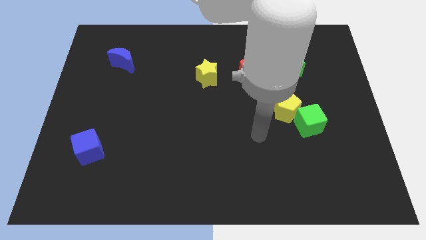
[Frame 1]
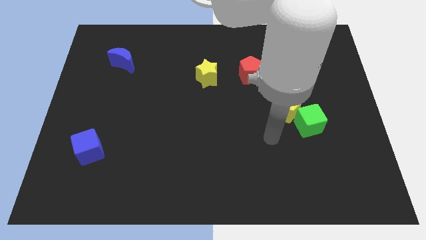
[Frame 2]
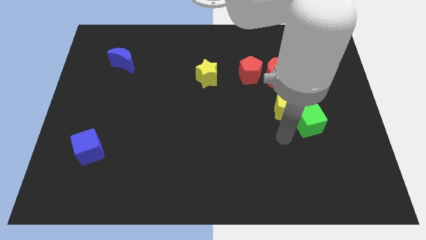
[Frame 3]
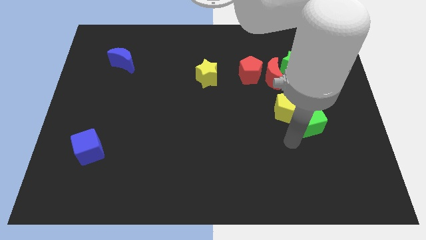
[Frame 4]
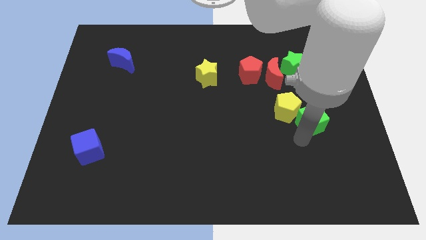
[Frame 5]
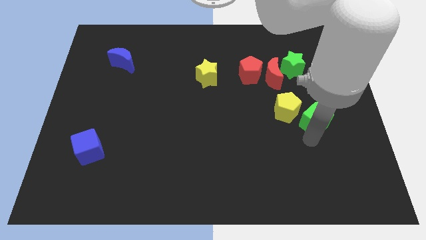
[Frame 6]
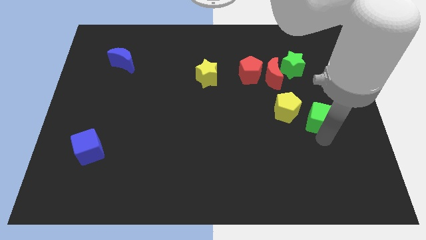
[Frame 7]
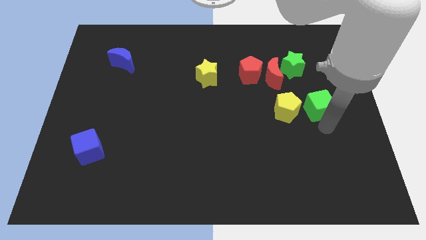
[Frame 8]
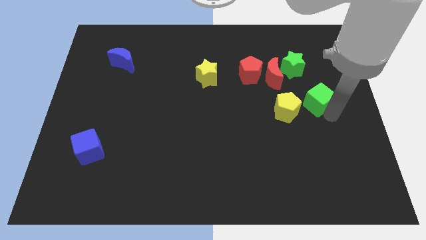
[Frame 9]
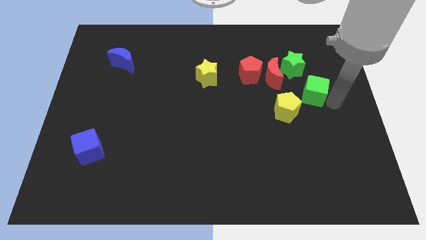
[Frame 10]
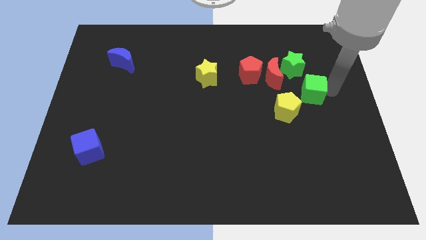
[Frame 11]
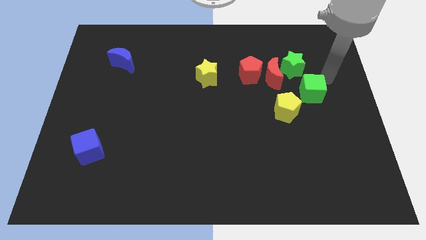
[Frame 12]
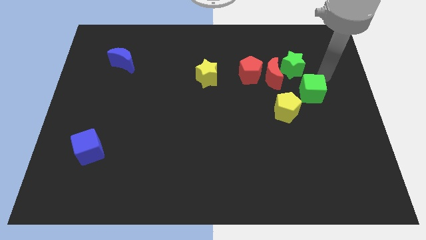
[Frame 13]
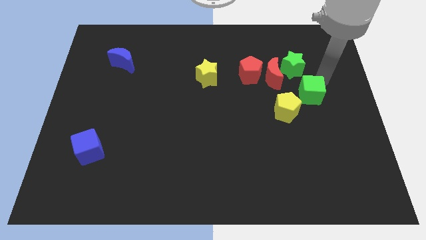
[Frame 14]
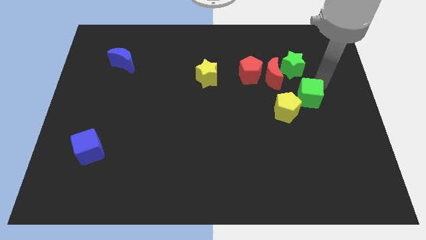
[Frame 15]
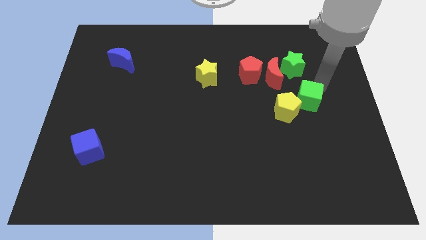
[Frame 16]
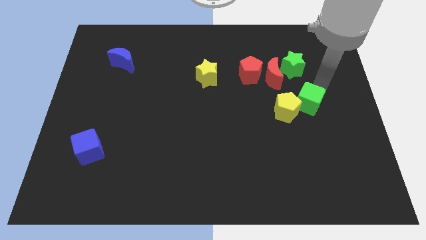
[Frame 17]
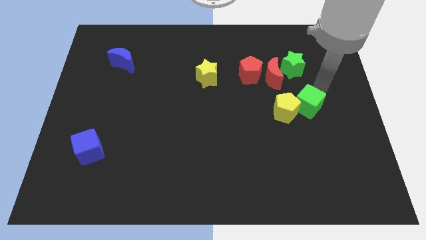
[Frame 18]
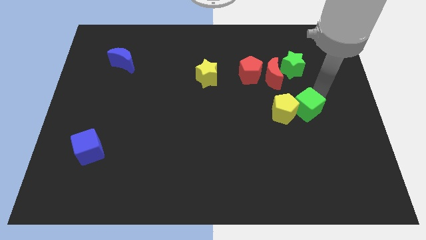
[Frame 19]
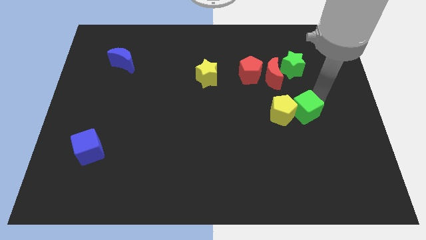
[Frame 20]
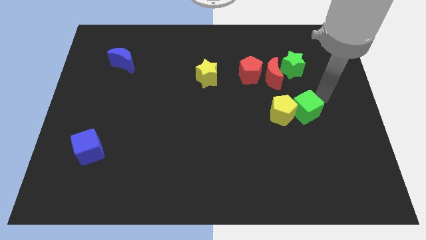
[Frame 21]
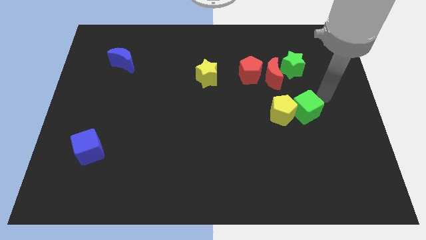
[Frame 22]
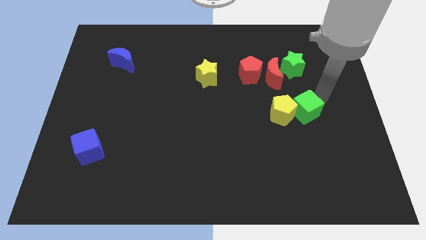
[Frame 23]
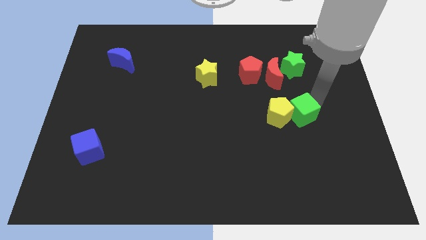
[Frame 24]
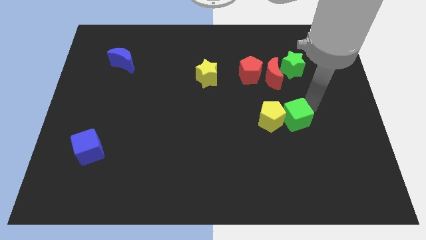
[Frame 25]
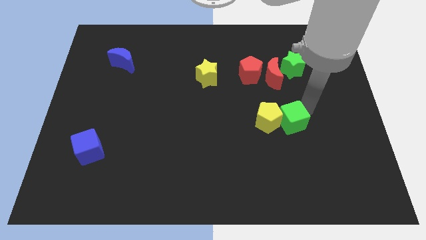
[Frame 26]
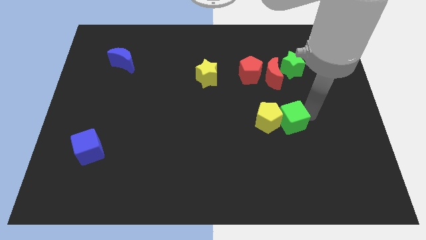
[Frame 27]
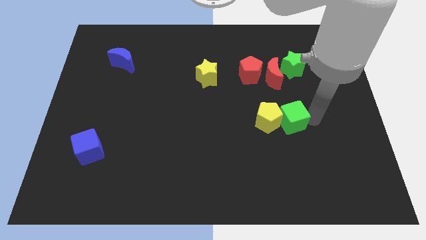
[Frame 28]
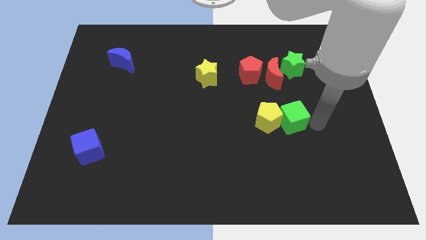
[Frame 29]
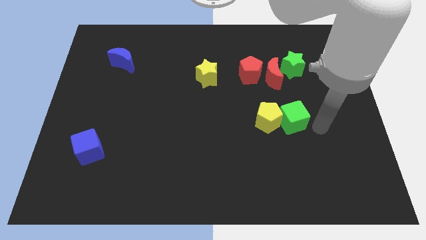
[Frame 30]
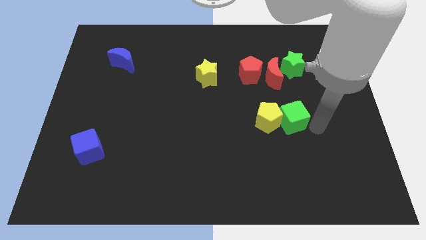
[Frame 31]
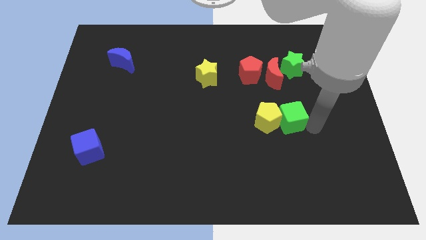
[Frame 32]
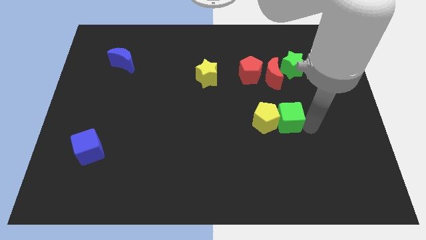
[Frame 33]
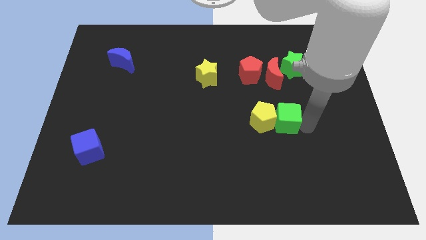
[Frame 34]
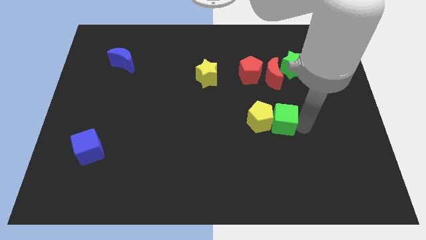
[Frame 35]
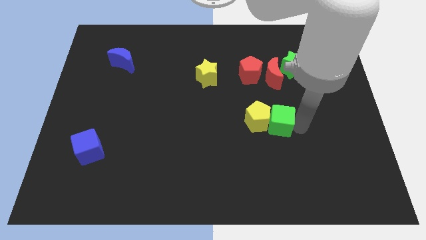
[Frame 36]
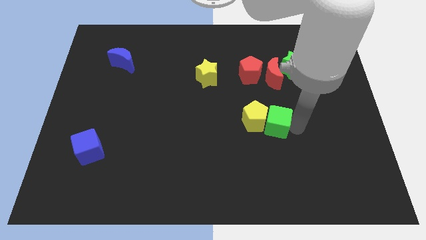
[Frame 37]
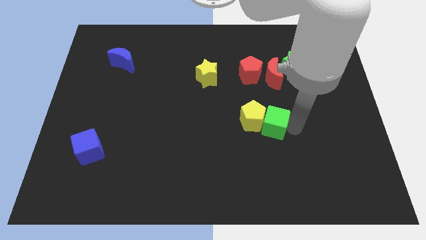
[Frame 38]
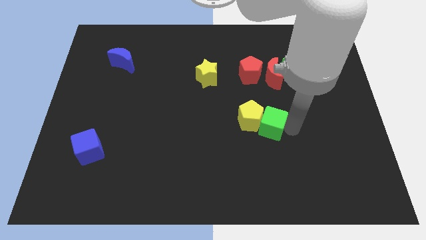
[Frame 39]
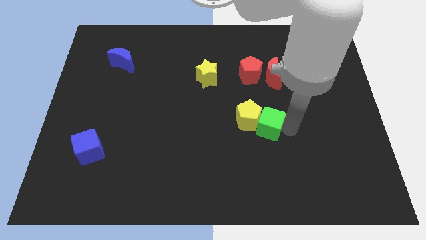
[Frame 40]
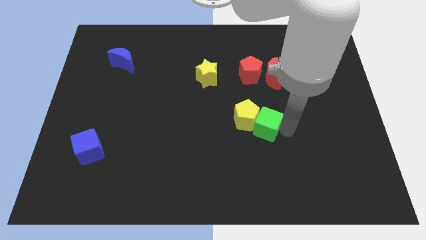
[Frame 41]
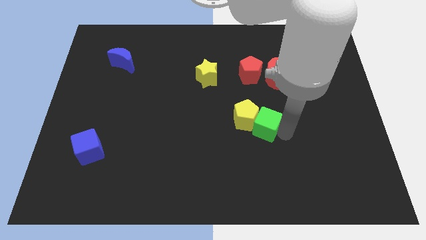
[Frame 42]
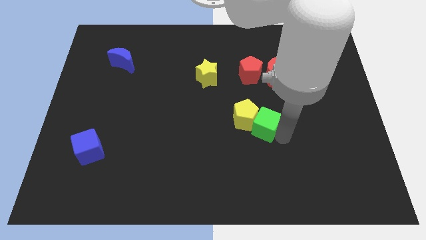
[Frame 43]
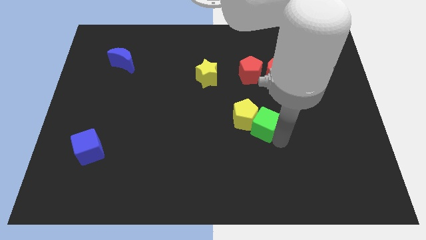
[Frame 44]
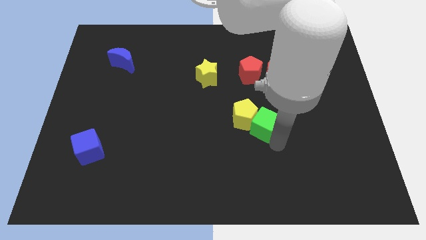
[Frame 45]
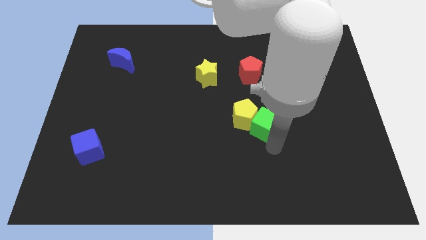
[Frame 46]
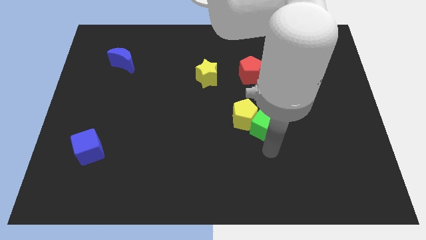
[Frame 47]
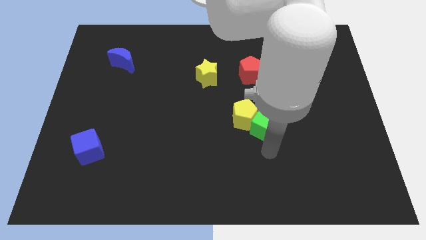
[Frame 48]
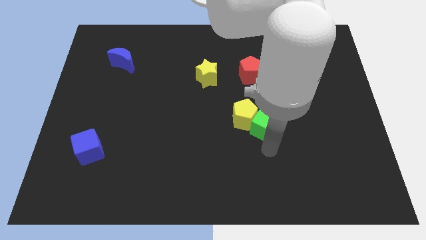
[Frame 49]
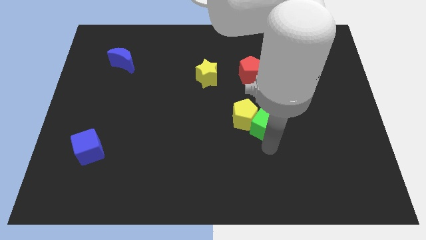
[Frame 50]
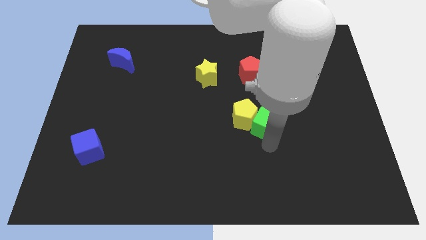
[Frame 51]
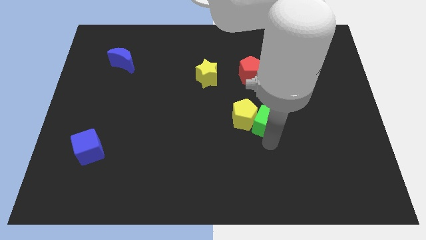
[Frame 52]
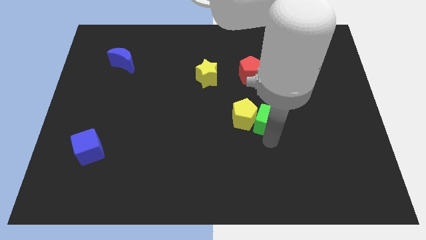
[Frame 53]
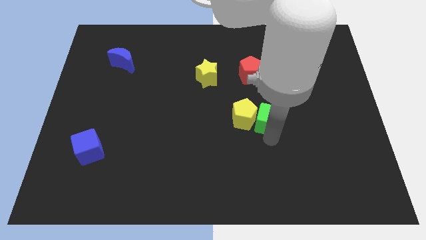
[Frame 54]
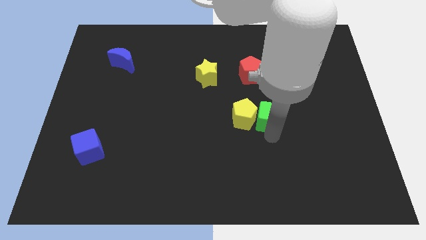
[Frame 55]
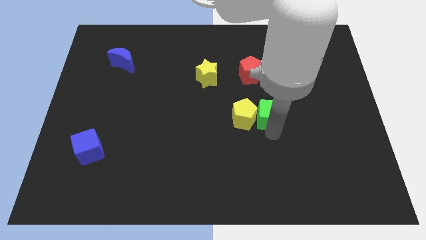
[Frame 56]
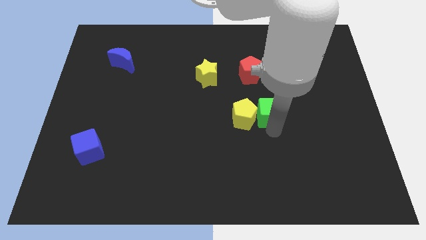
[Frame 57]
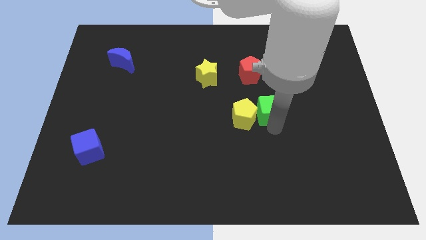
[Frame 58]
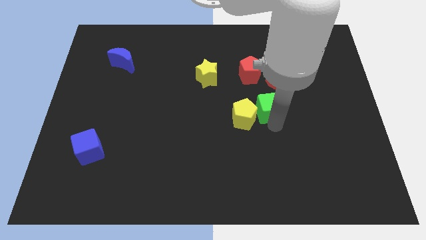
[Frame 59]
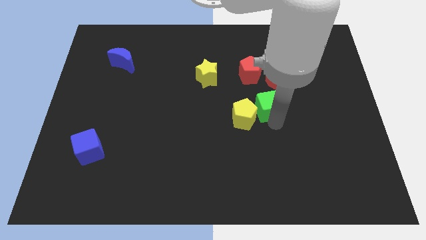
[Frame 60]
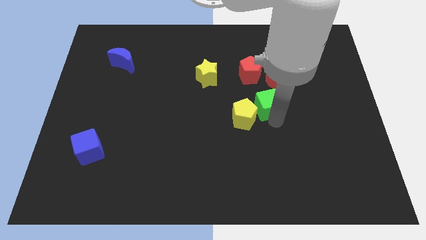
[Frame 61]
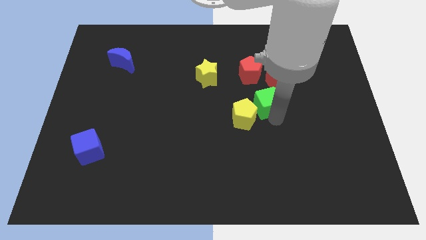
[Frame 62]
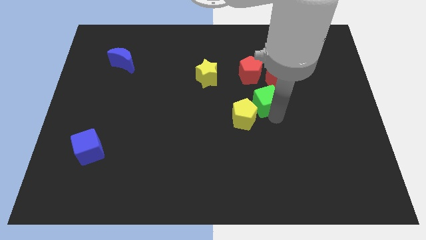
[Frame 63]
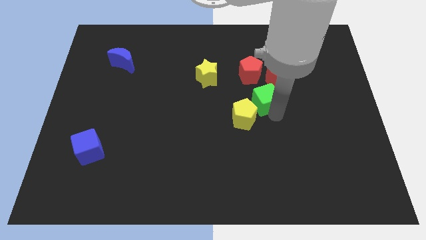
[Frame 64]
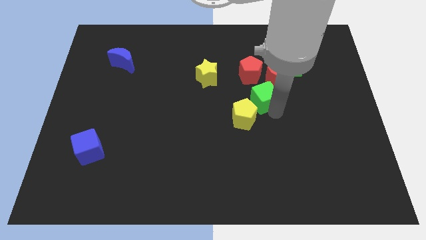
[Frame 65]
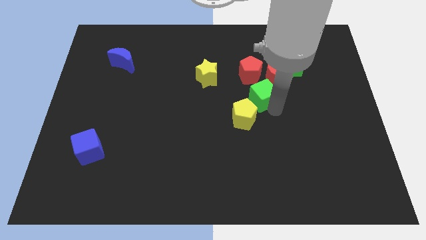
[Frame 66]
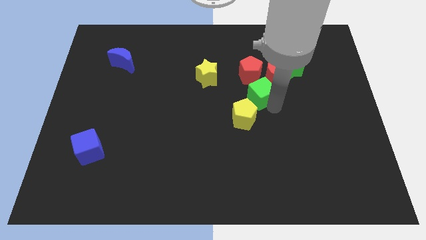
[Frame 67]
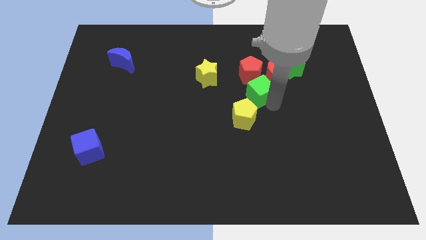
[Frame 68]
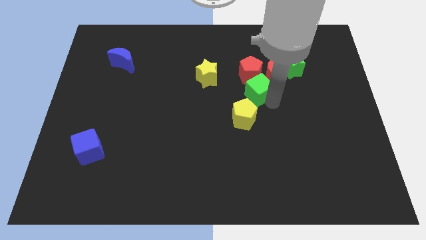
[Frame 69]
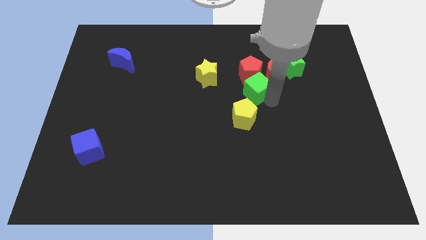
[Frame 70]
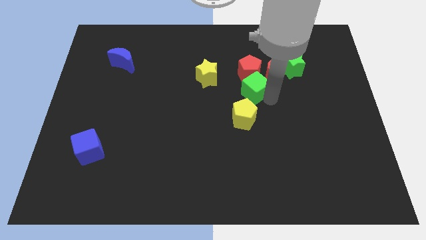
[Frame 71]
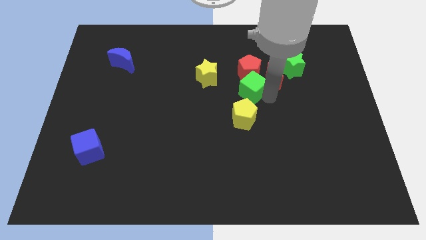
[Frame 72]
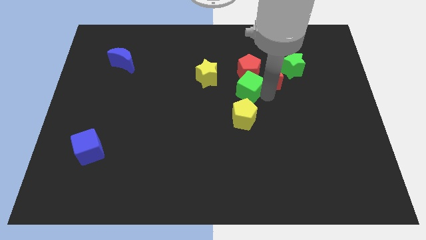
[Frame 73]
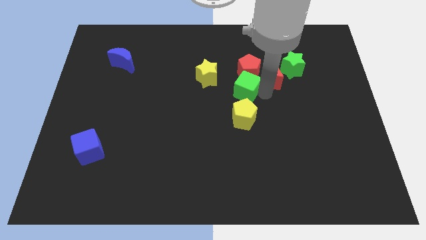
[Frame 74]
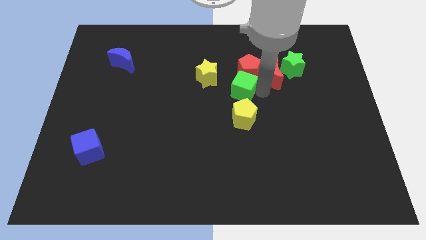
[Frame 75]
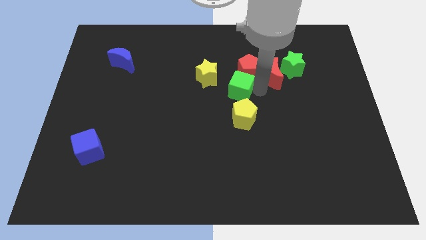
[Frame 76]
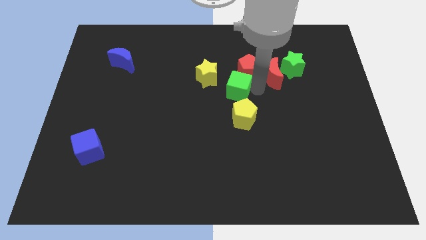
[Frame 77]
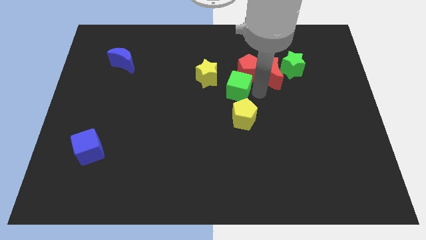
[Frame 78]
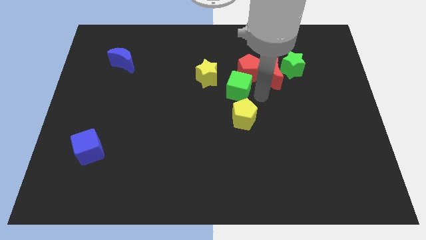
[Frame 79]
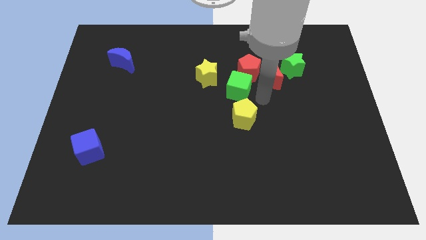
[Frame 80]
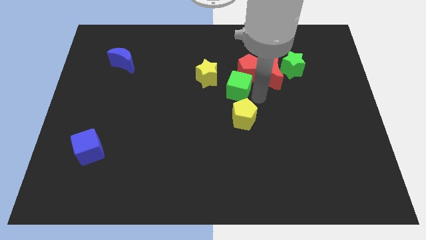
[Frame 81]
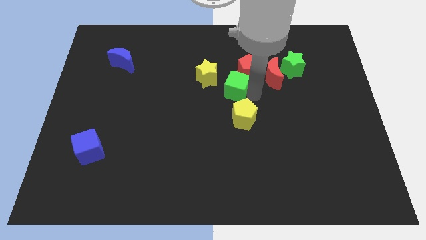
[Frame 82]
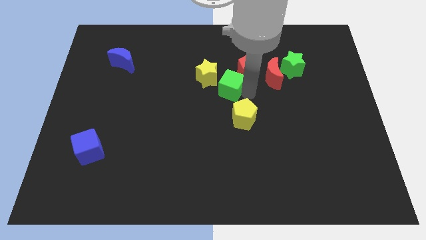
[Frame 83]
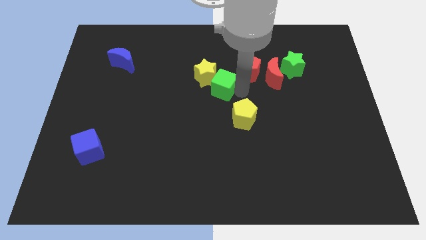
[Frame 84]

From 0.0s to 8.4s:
put the green cube next to the yellow star
